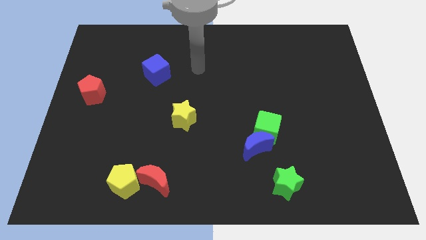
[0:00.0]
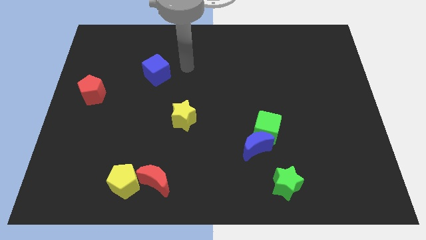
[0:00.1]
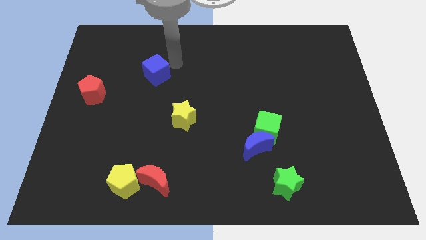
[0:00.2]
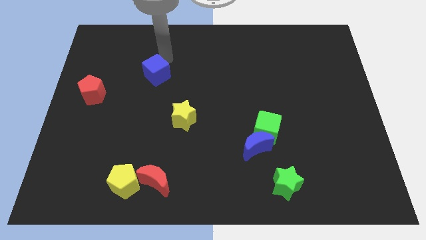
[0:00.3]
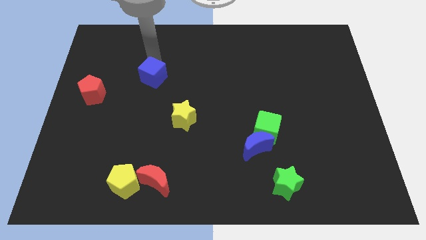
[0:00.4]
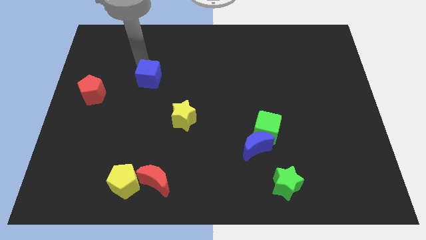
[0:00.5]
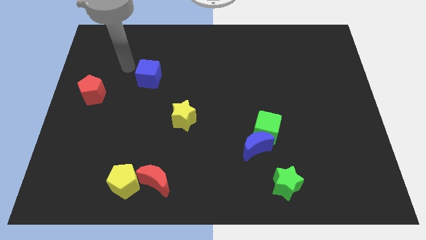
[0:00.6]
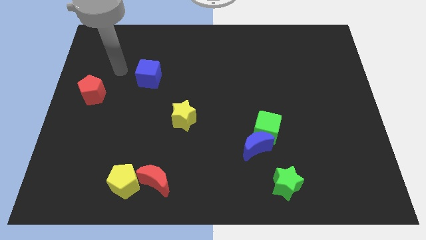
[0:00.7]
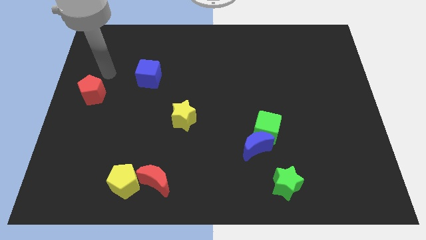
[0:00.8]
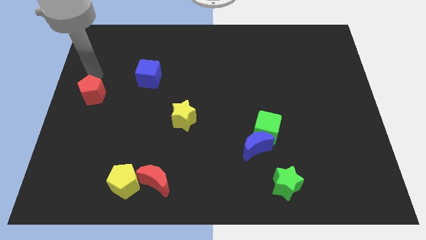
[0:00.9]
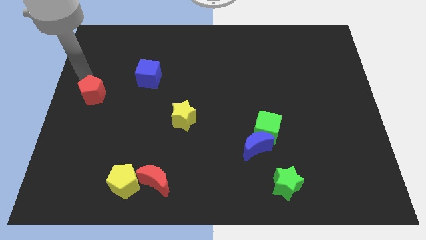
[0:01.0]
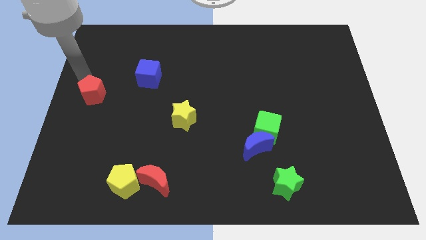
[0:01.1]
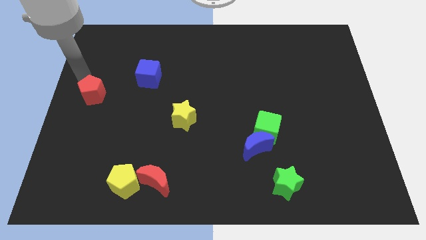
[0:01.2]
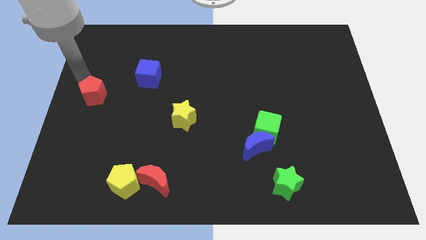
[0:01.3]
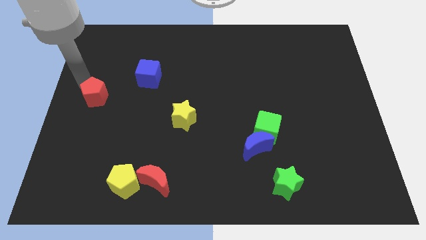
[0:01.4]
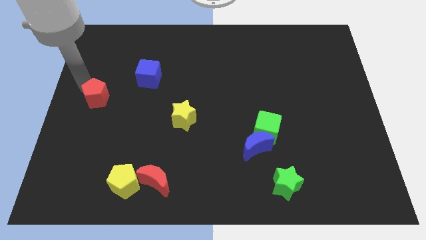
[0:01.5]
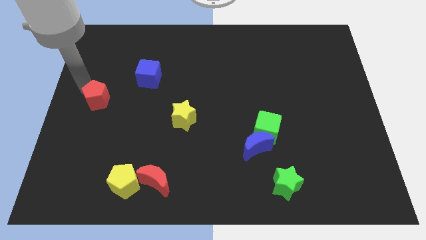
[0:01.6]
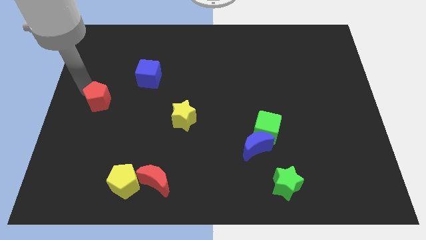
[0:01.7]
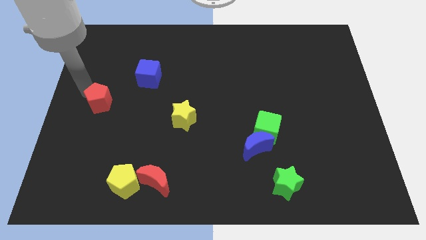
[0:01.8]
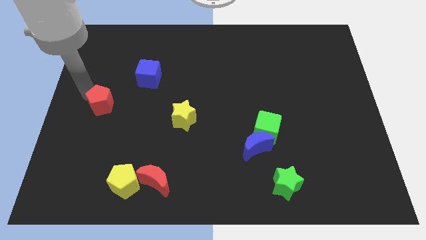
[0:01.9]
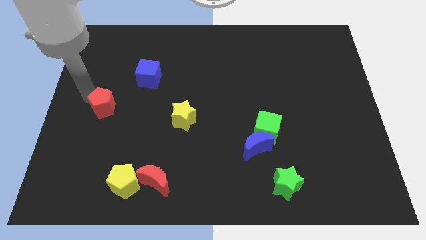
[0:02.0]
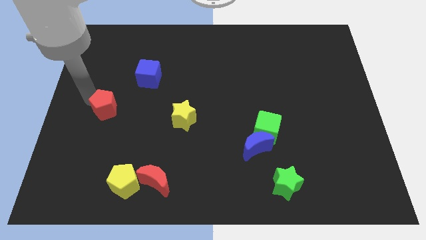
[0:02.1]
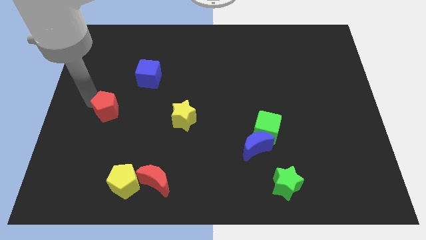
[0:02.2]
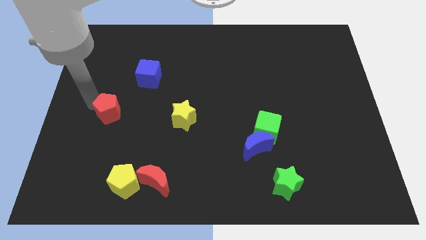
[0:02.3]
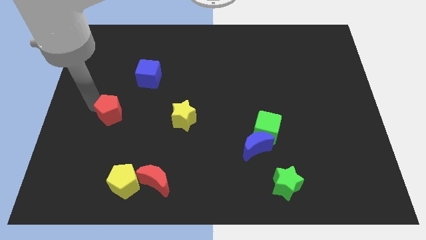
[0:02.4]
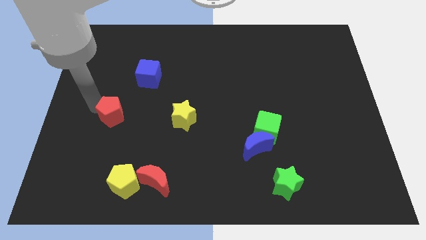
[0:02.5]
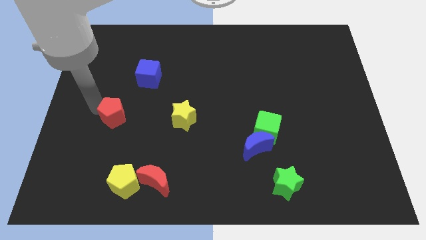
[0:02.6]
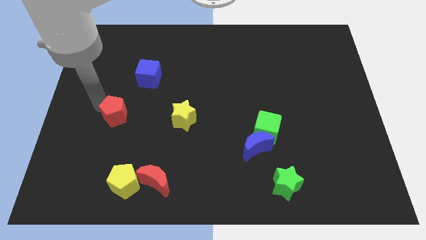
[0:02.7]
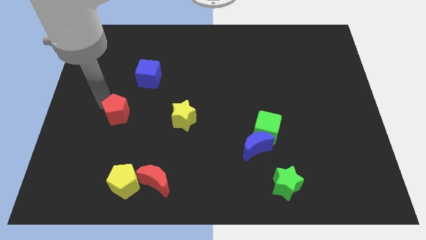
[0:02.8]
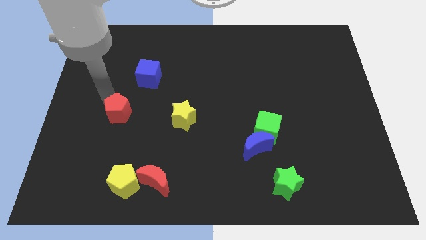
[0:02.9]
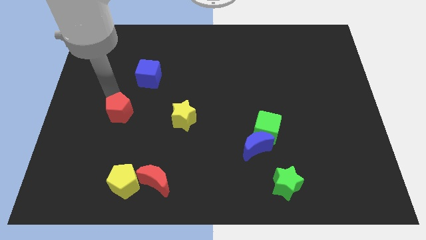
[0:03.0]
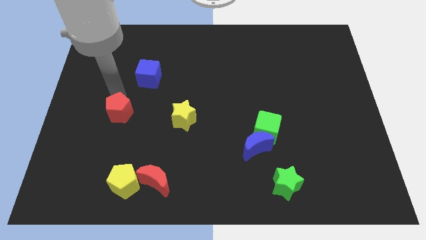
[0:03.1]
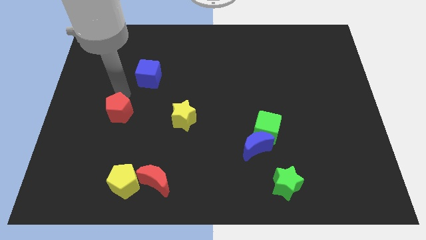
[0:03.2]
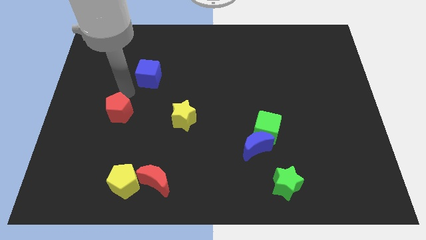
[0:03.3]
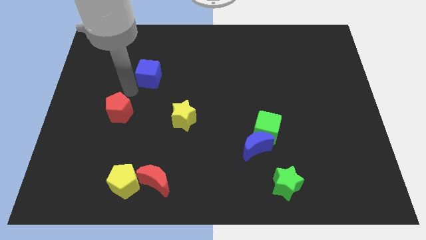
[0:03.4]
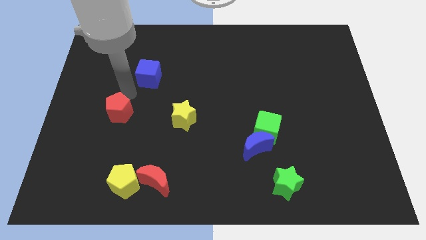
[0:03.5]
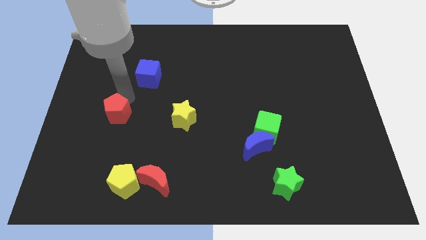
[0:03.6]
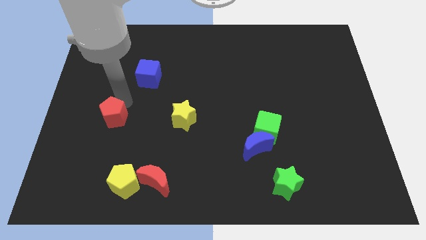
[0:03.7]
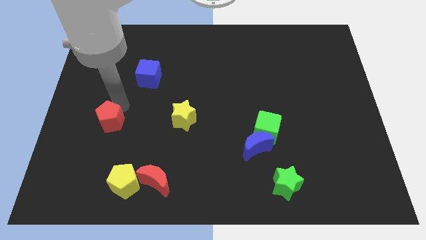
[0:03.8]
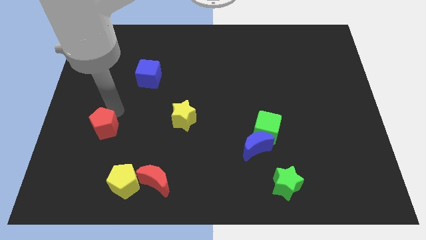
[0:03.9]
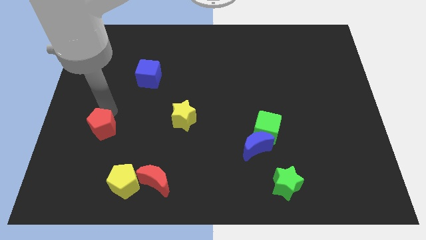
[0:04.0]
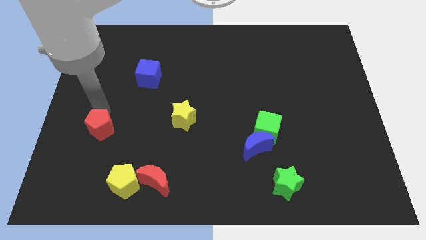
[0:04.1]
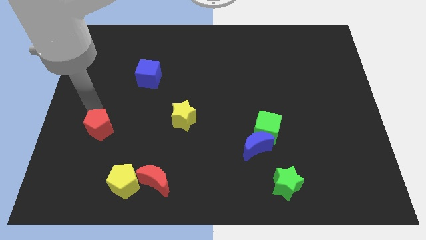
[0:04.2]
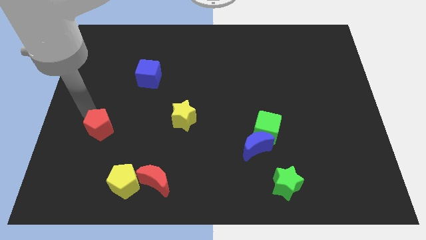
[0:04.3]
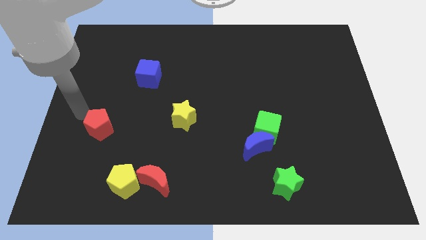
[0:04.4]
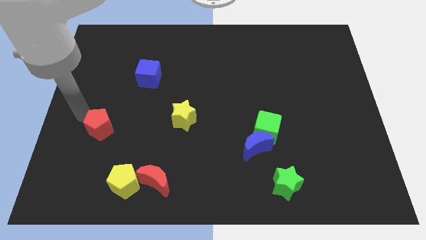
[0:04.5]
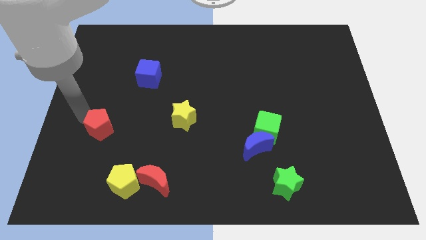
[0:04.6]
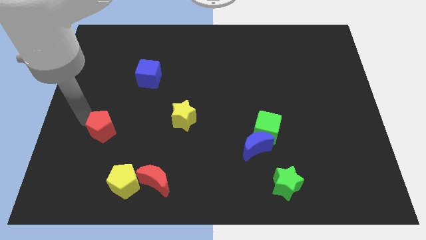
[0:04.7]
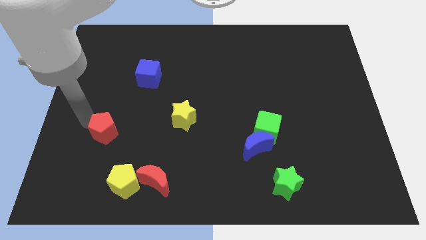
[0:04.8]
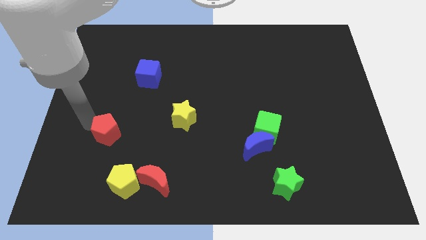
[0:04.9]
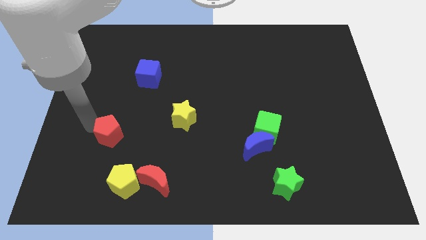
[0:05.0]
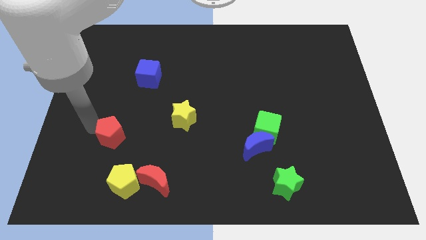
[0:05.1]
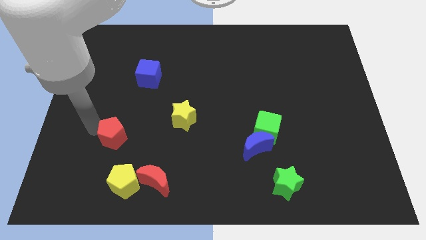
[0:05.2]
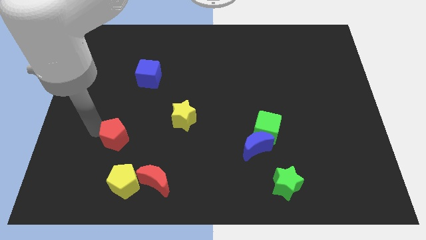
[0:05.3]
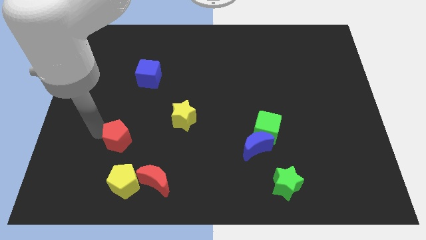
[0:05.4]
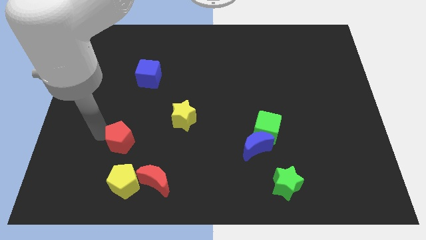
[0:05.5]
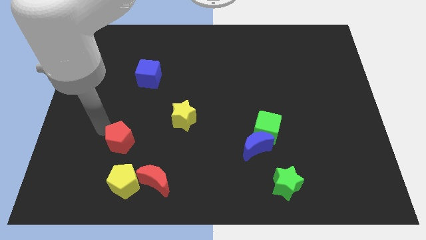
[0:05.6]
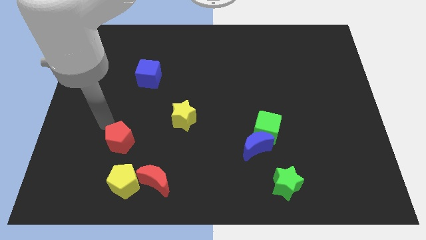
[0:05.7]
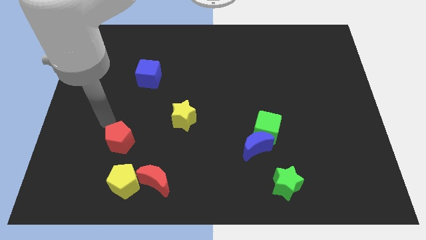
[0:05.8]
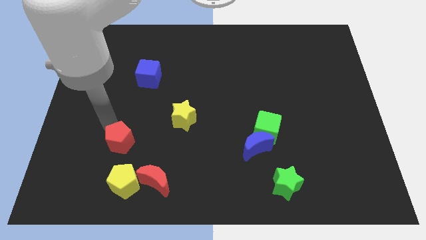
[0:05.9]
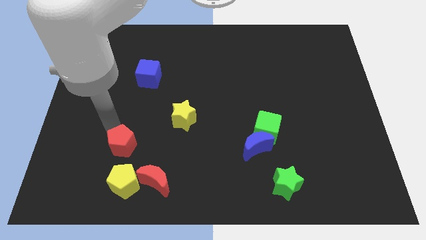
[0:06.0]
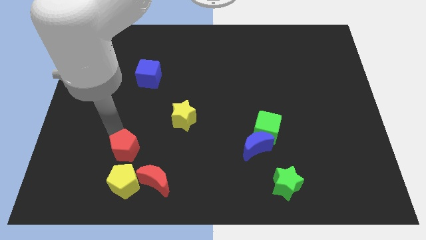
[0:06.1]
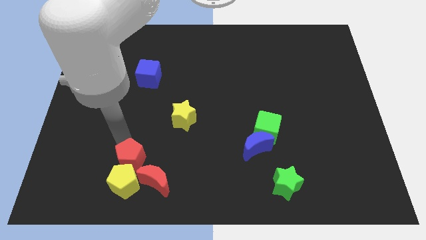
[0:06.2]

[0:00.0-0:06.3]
move the red pentagon to the yellow pentagon
